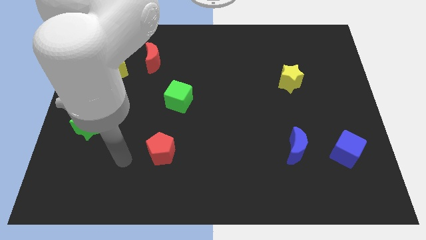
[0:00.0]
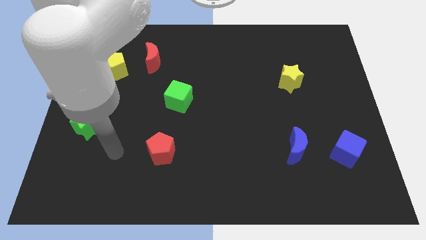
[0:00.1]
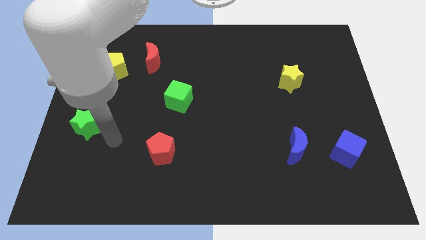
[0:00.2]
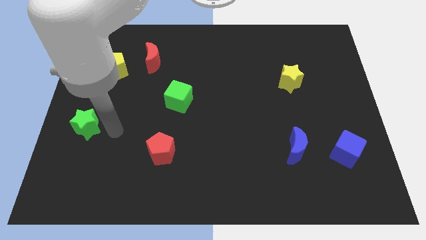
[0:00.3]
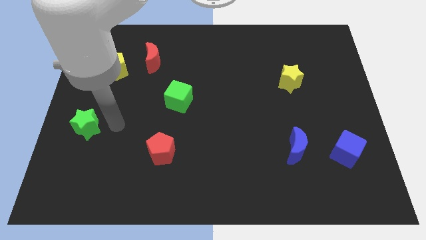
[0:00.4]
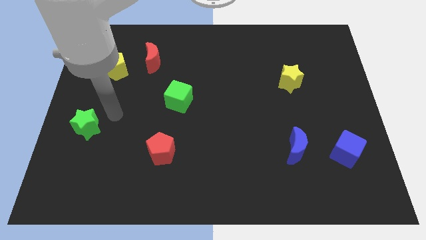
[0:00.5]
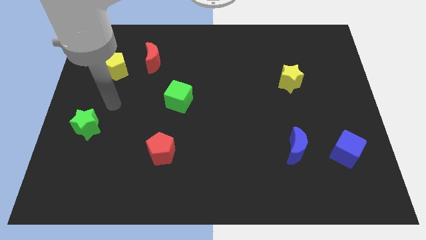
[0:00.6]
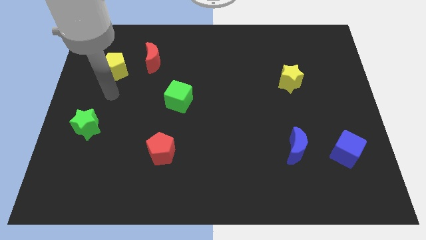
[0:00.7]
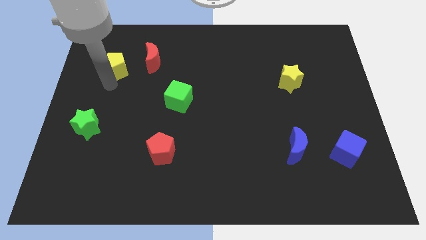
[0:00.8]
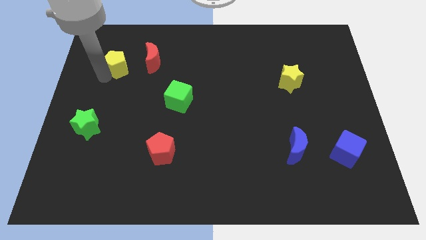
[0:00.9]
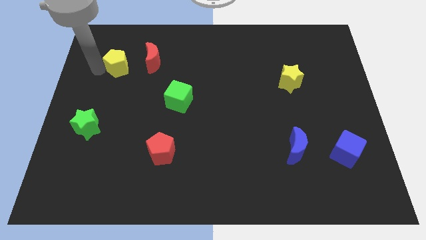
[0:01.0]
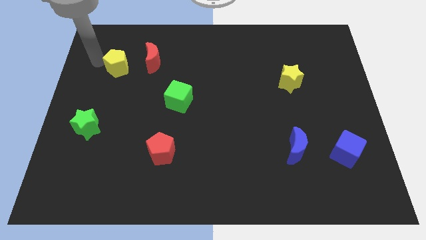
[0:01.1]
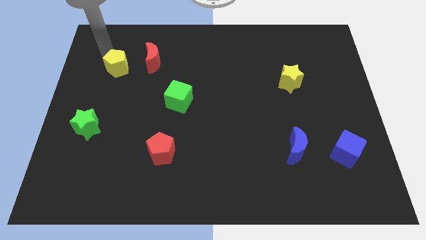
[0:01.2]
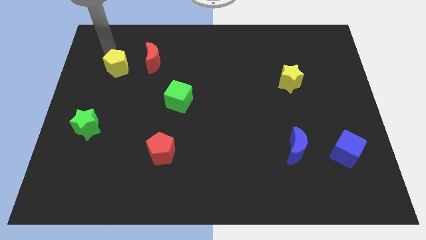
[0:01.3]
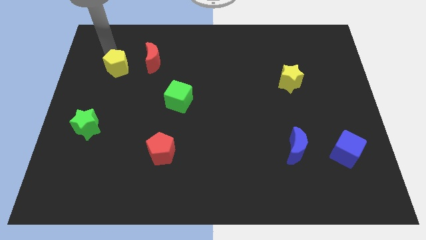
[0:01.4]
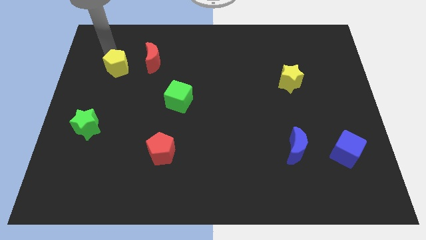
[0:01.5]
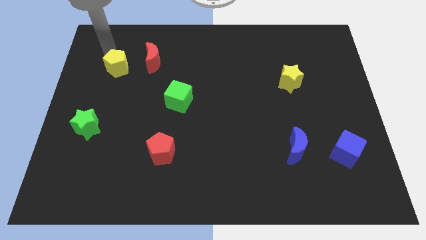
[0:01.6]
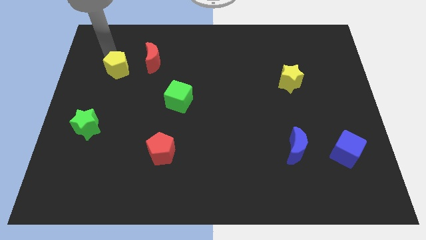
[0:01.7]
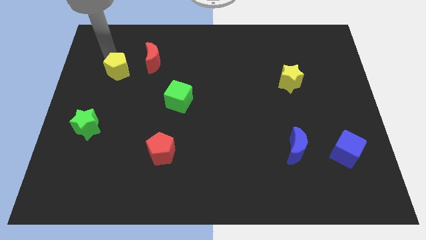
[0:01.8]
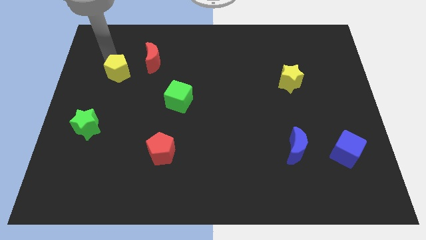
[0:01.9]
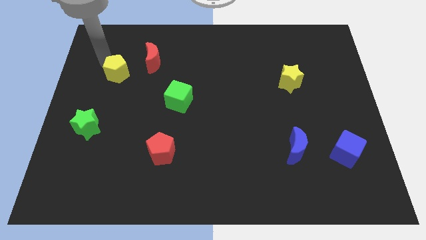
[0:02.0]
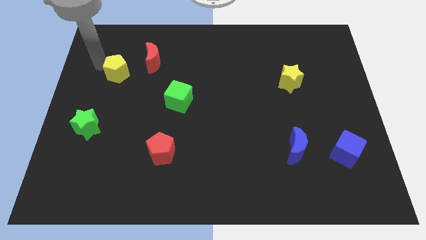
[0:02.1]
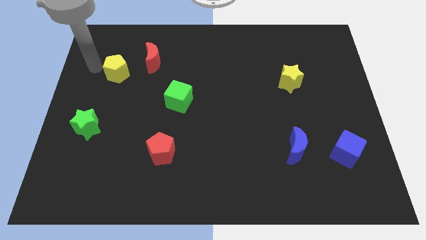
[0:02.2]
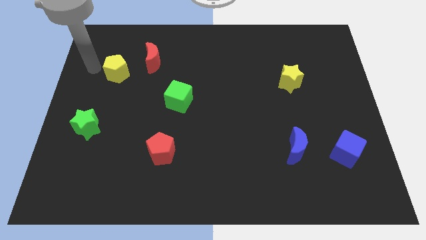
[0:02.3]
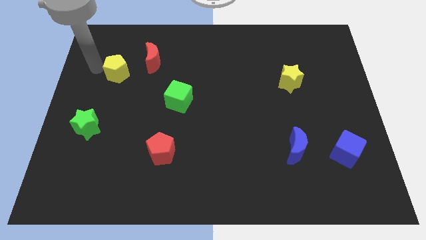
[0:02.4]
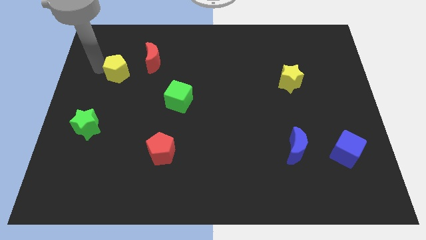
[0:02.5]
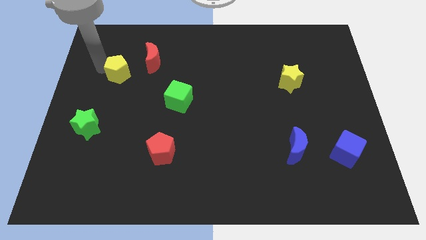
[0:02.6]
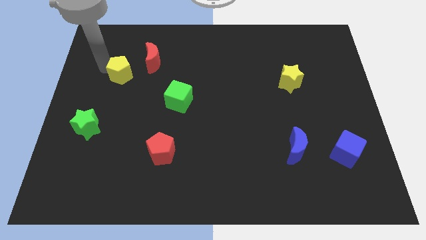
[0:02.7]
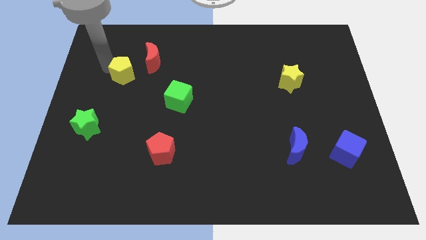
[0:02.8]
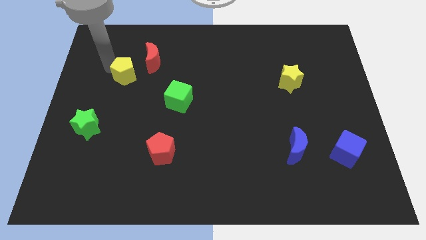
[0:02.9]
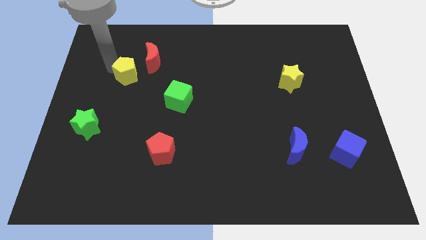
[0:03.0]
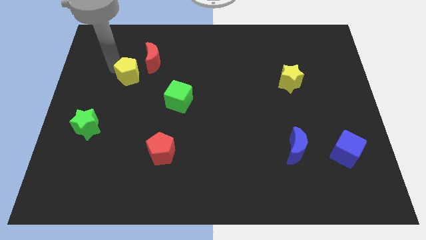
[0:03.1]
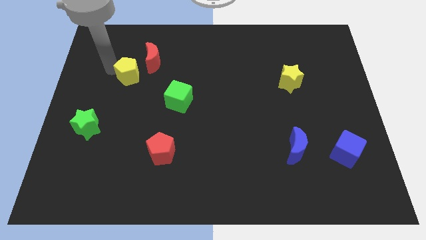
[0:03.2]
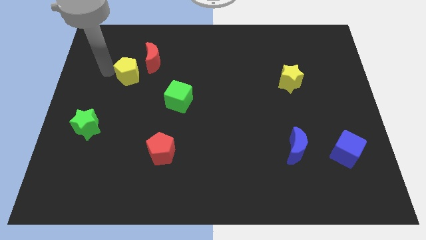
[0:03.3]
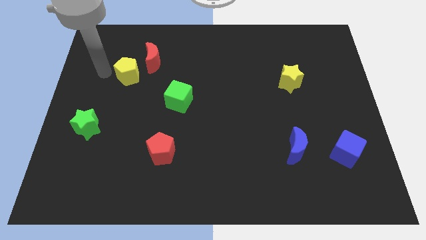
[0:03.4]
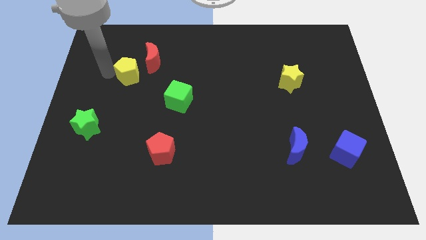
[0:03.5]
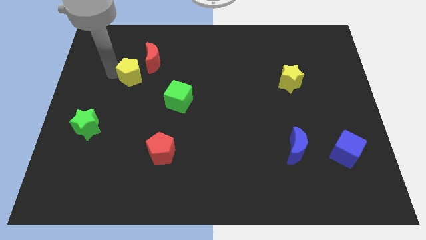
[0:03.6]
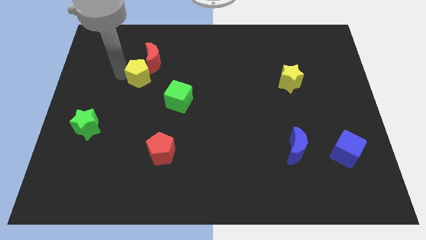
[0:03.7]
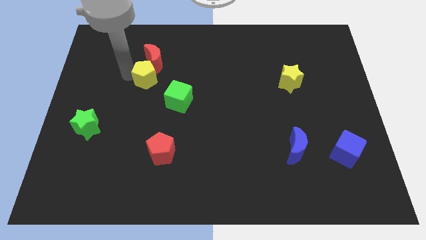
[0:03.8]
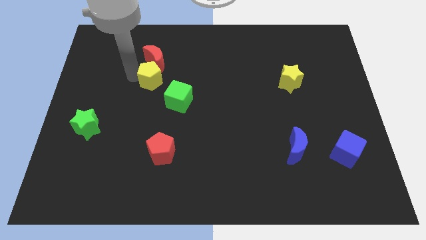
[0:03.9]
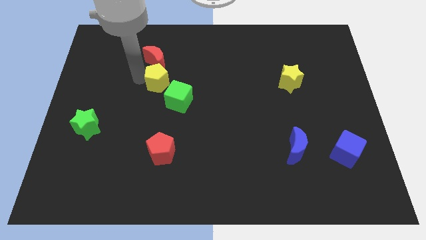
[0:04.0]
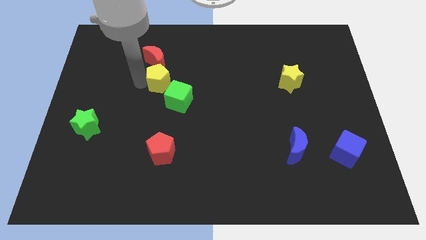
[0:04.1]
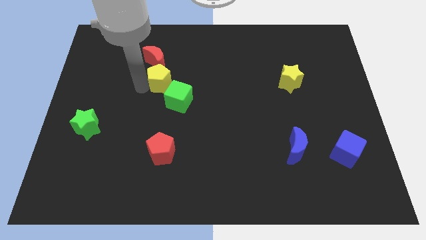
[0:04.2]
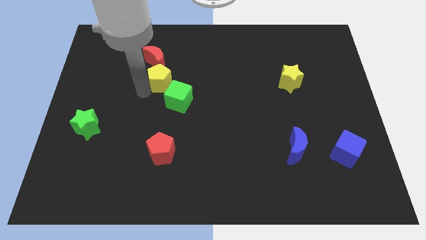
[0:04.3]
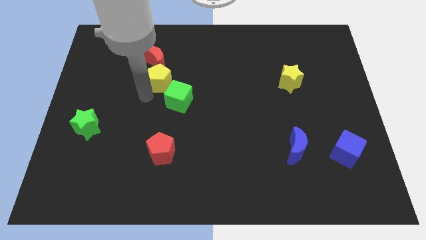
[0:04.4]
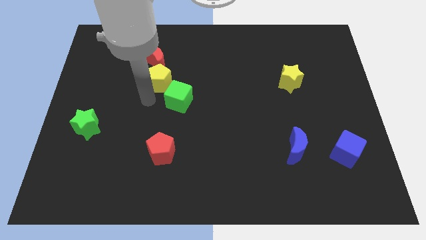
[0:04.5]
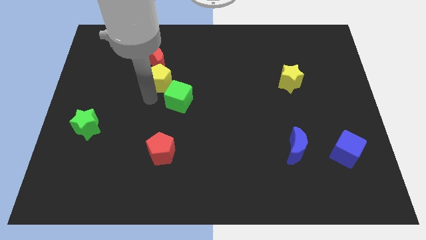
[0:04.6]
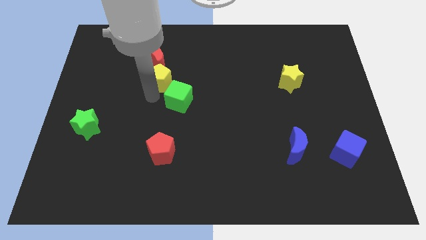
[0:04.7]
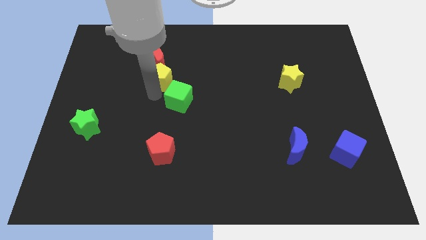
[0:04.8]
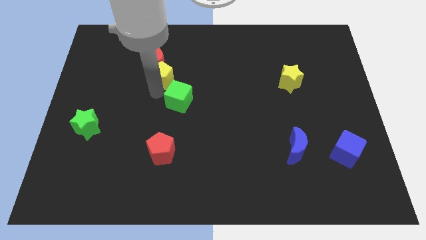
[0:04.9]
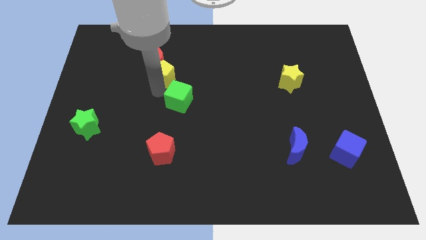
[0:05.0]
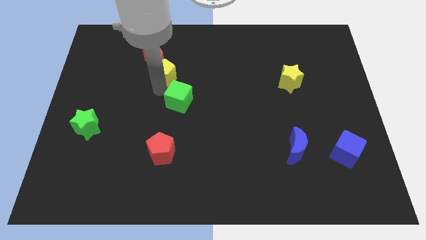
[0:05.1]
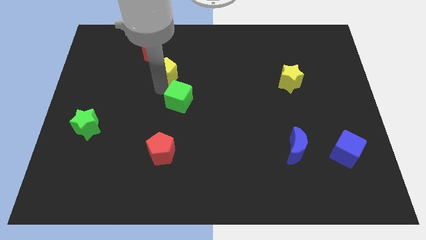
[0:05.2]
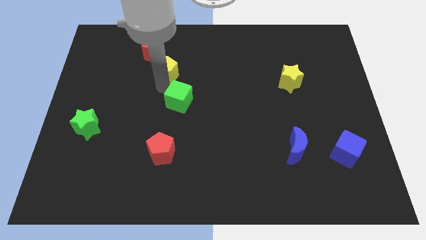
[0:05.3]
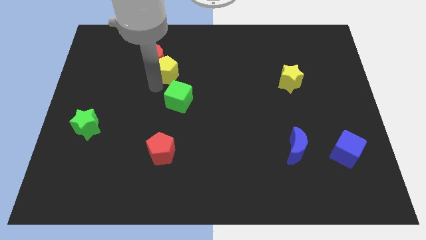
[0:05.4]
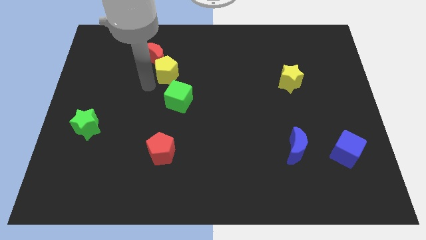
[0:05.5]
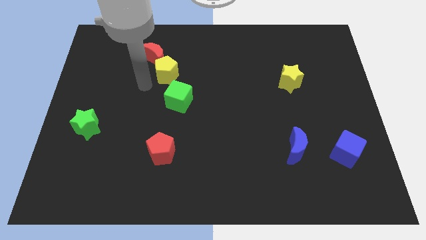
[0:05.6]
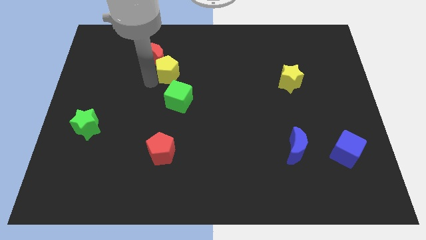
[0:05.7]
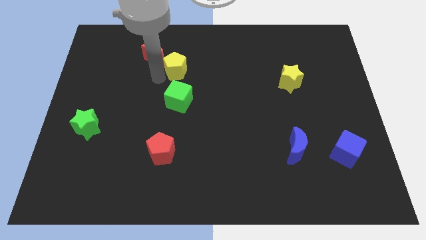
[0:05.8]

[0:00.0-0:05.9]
slide the yellow pentagon just right of the red moon
